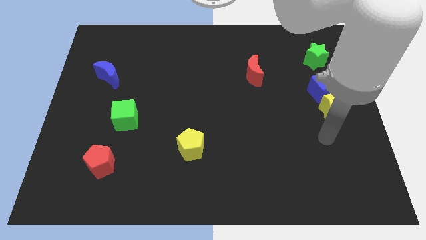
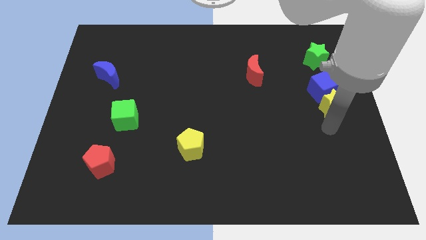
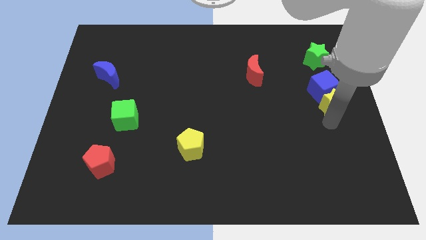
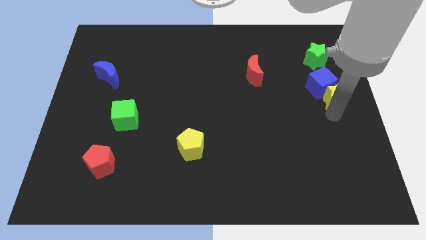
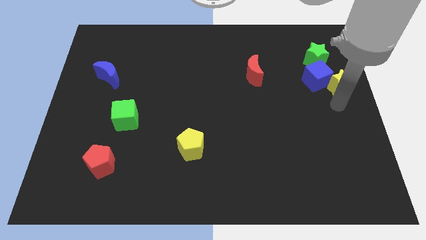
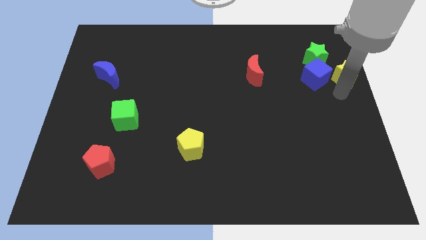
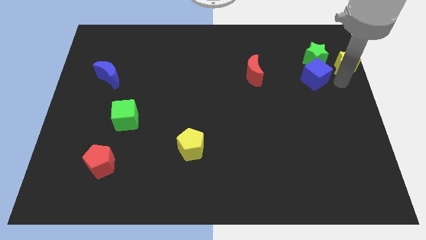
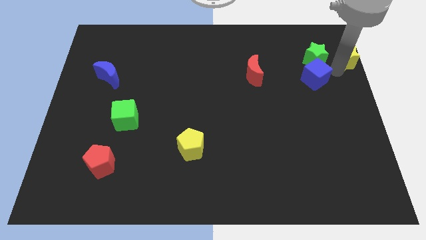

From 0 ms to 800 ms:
pull the blue cube apart from the yellow star

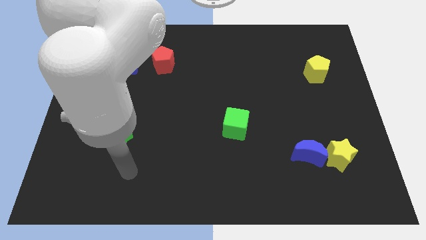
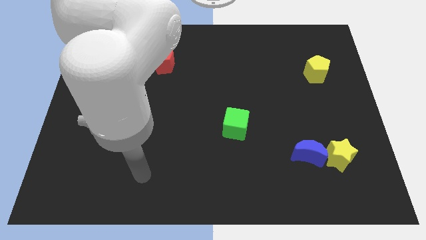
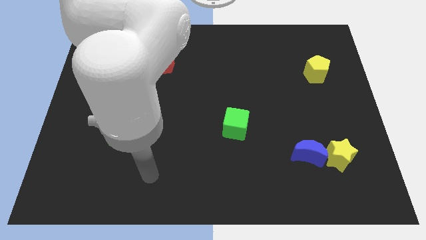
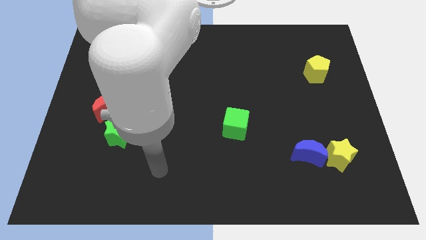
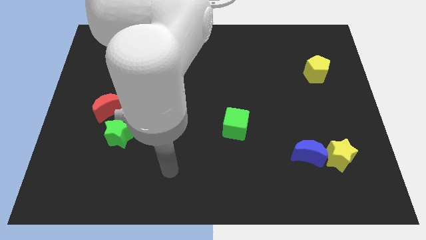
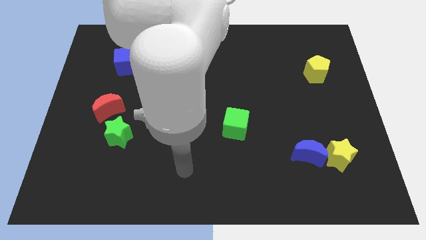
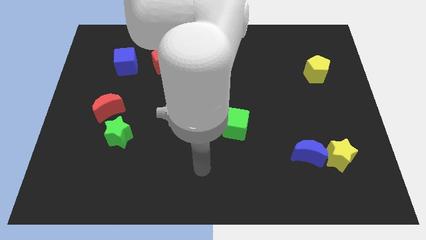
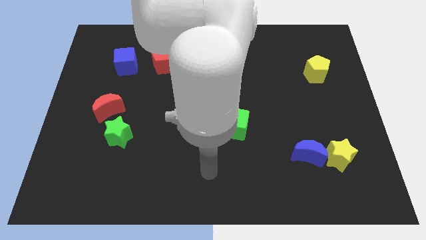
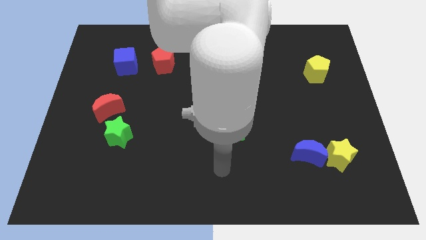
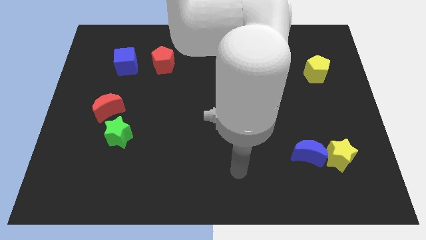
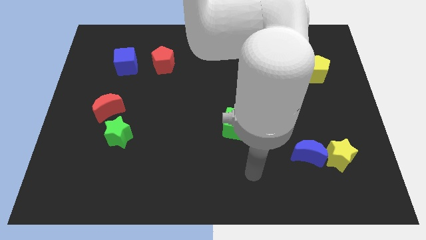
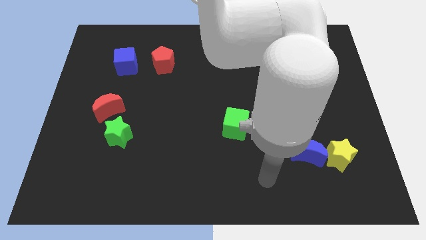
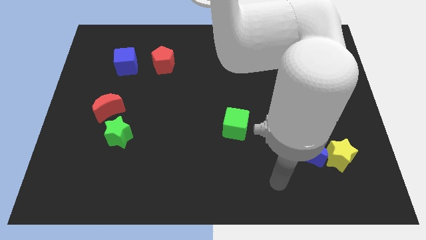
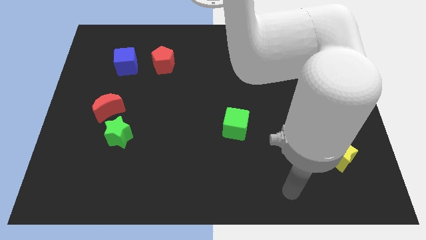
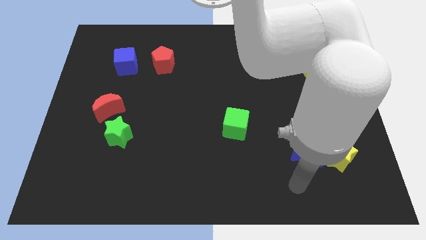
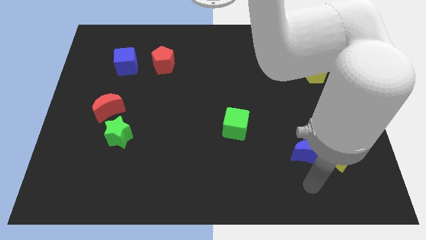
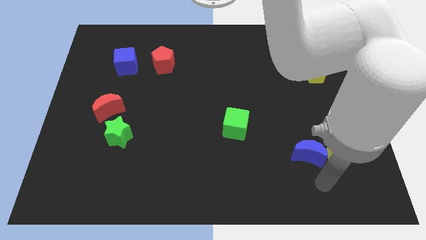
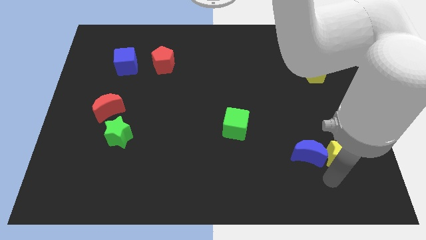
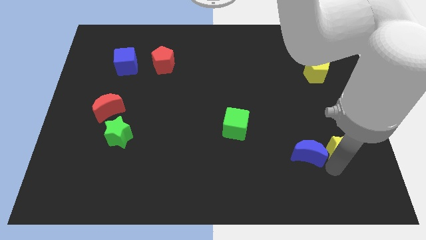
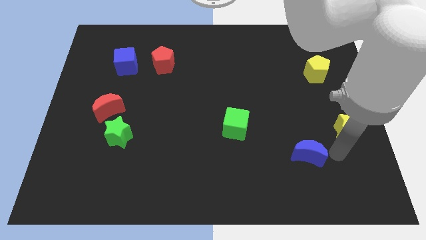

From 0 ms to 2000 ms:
pull the blue moon apart from the yellow star

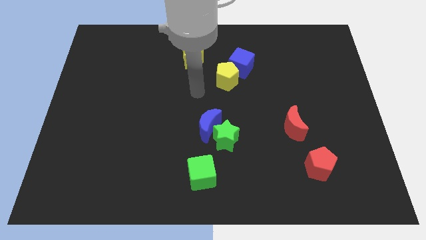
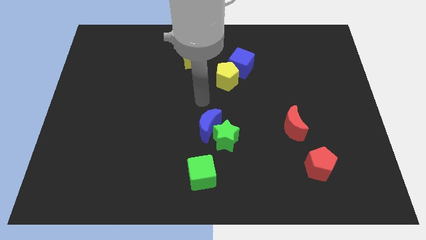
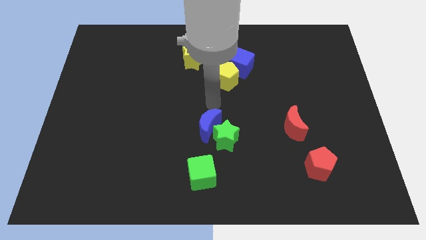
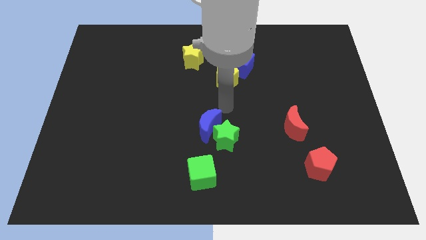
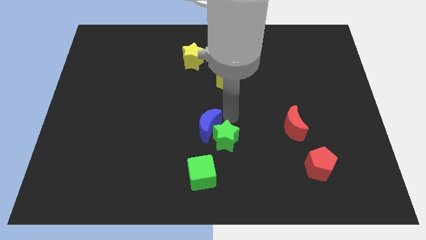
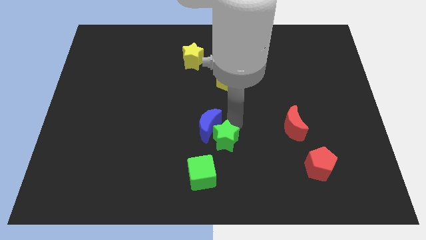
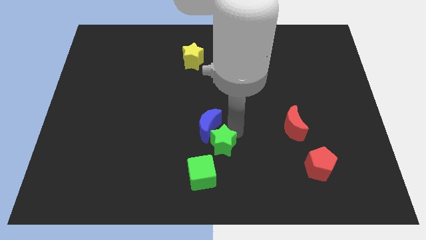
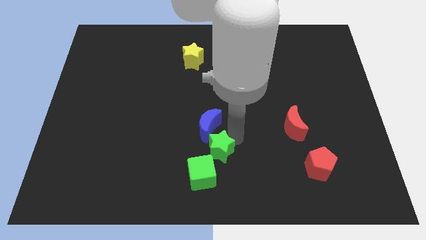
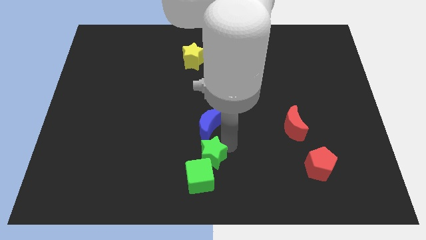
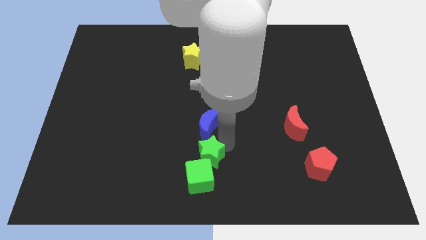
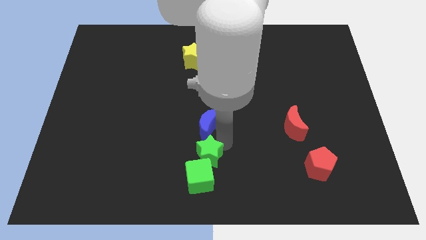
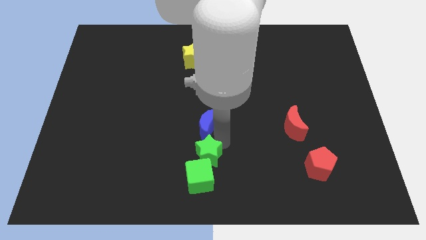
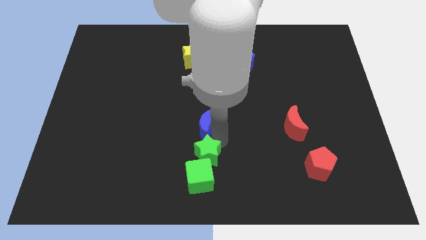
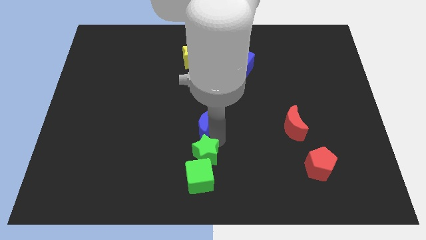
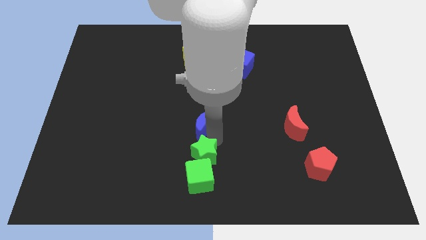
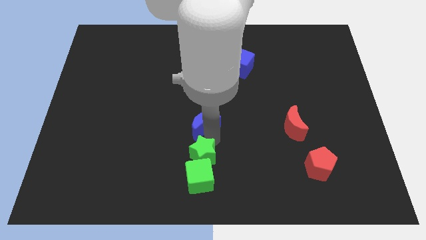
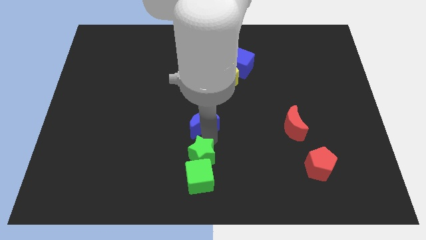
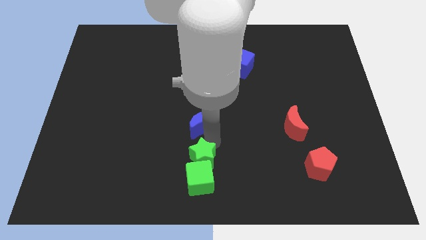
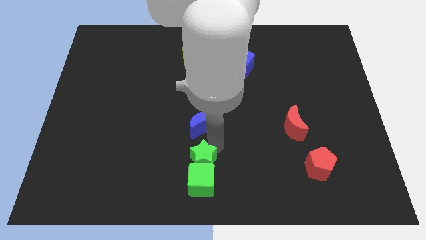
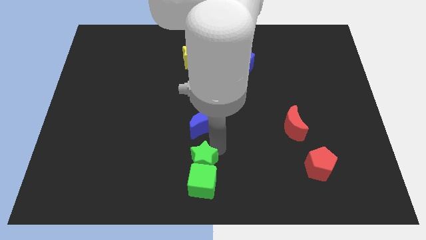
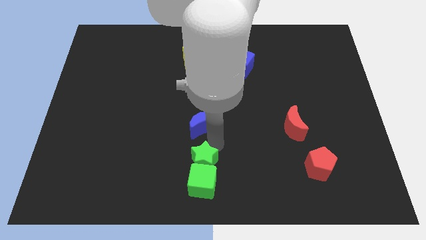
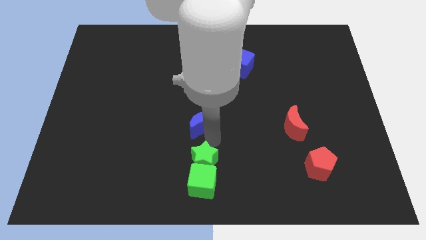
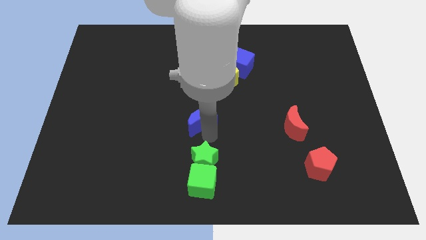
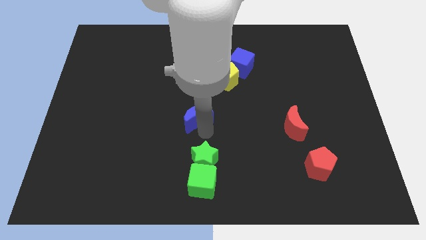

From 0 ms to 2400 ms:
separate the blue moon from the green star

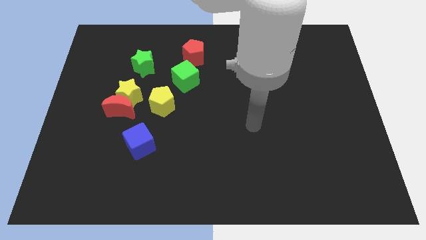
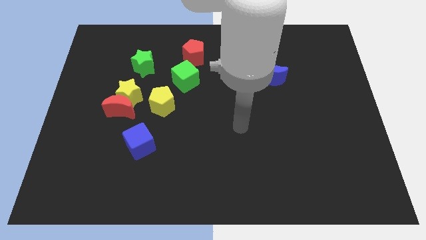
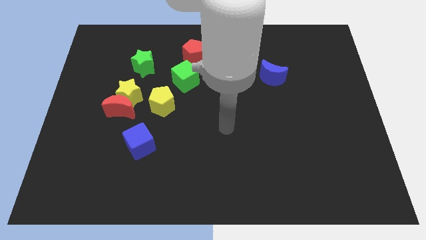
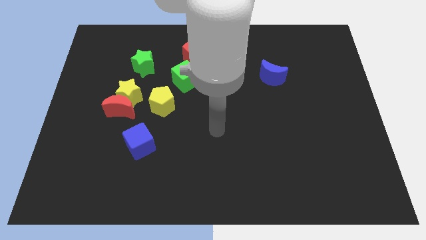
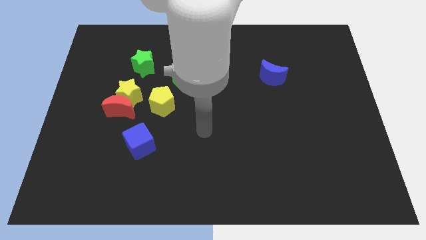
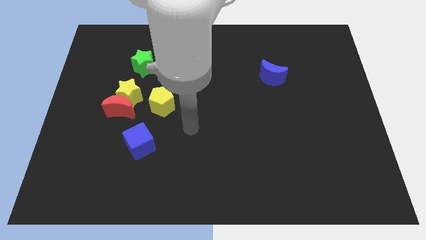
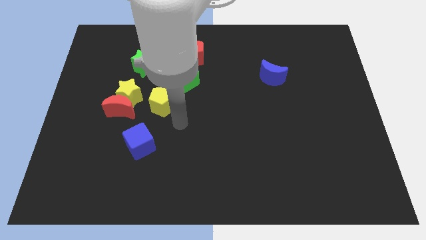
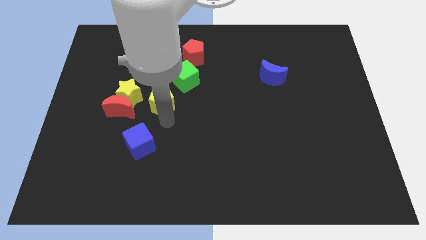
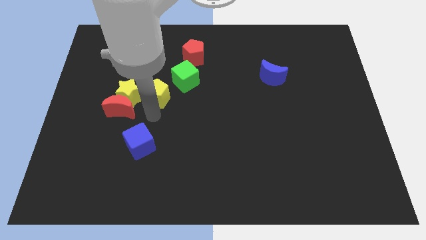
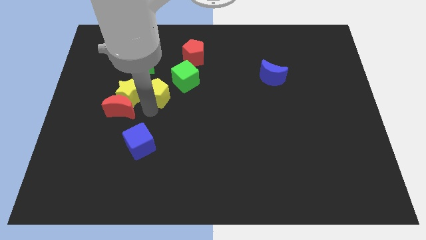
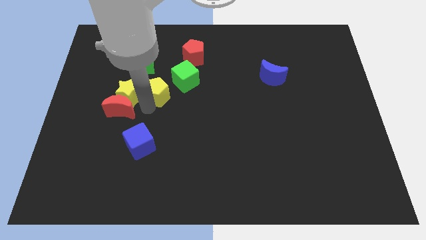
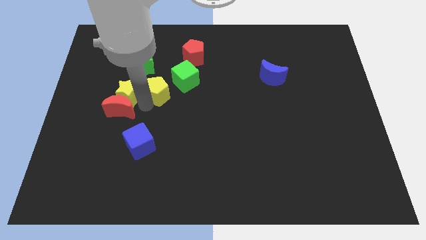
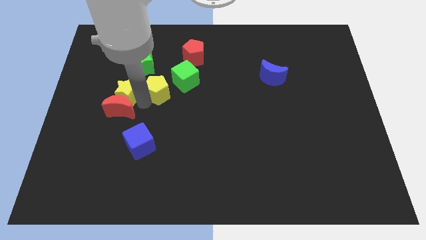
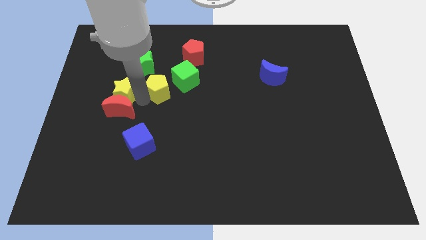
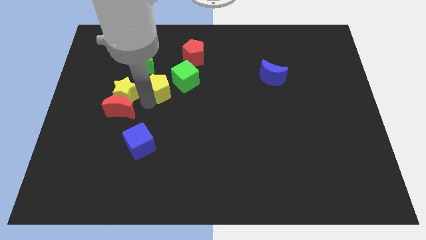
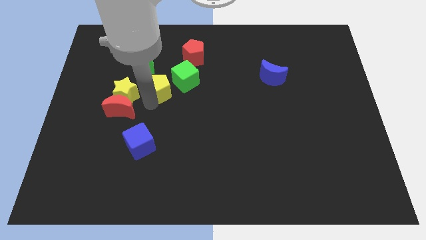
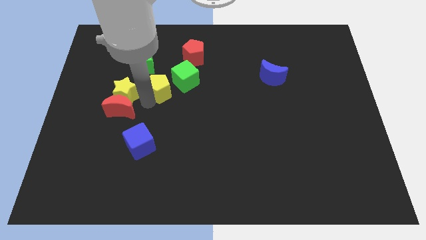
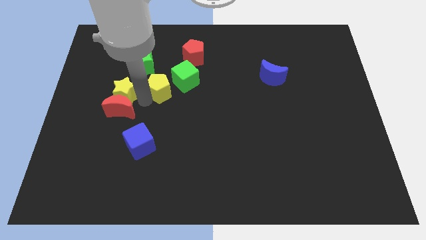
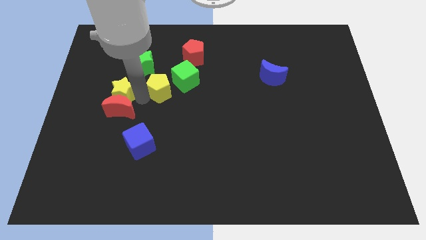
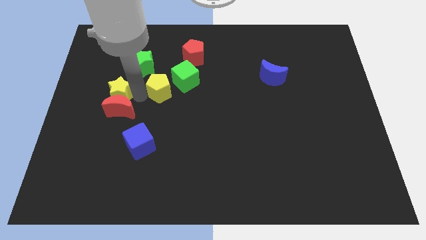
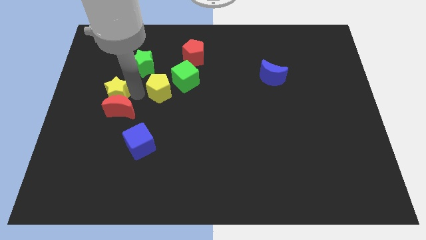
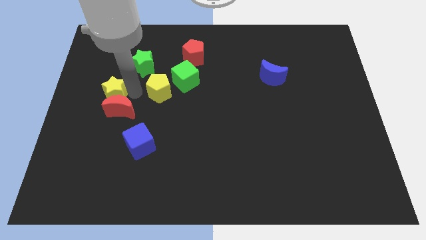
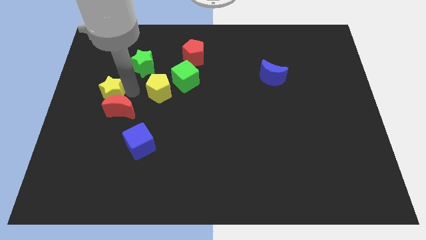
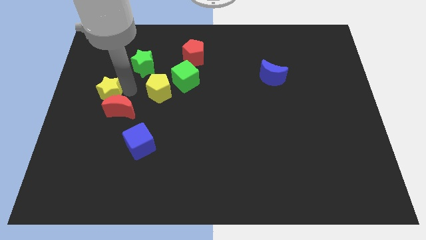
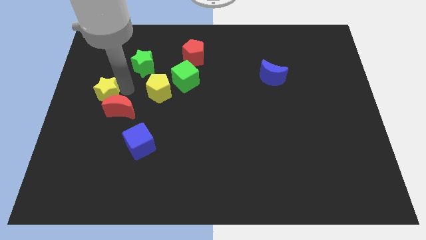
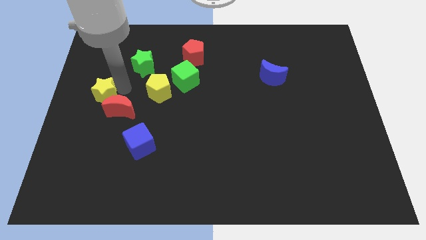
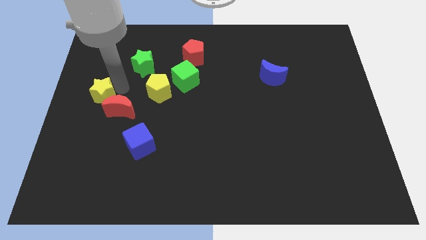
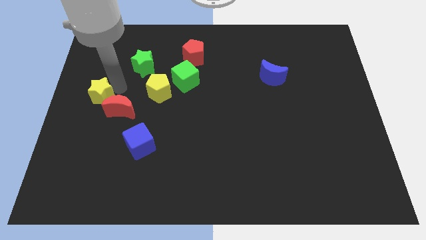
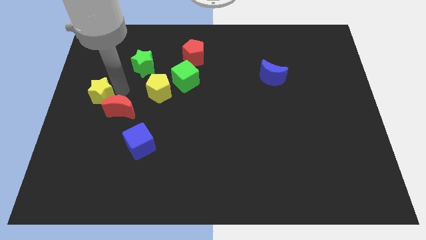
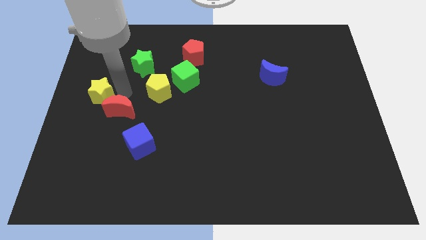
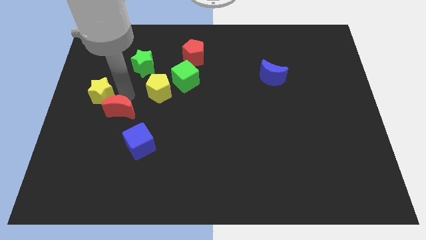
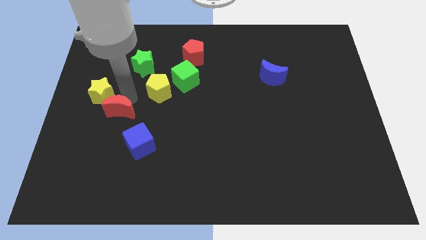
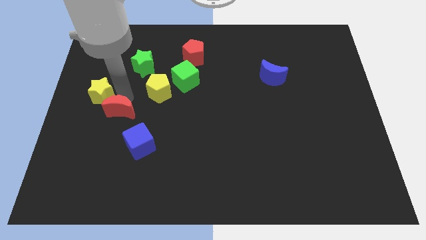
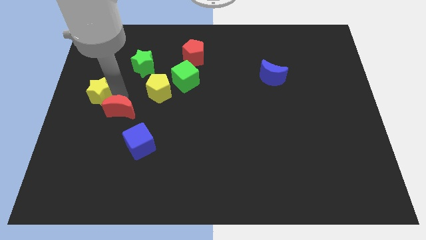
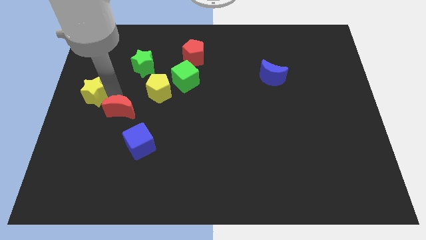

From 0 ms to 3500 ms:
separate the yellow star from the red moon and yellow pentagon

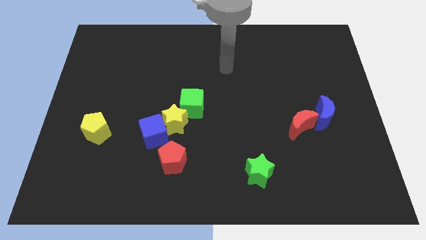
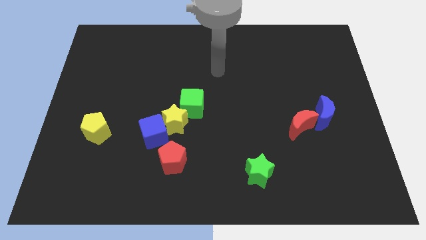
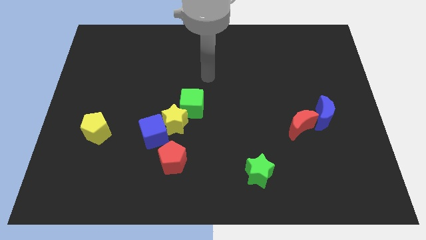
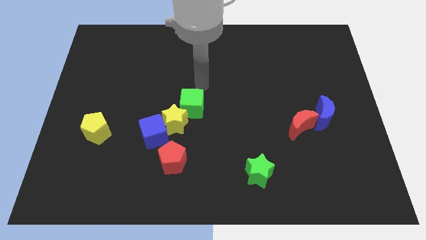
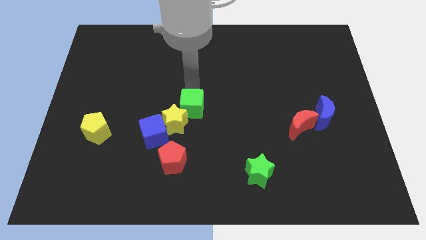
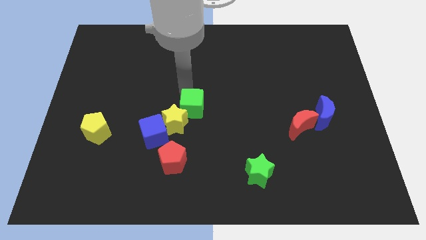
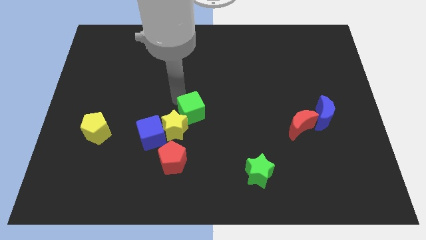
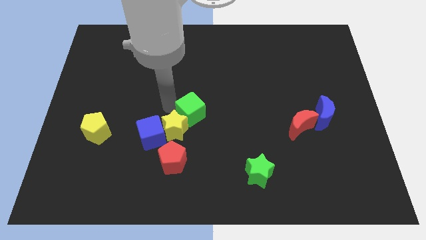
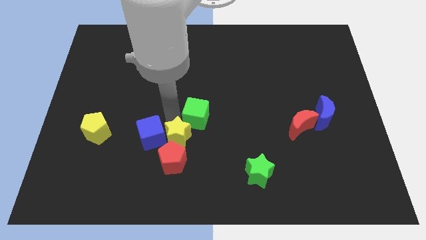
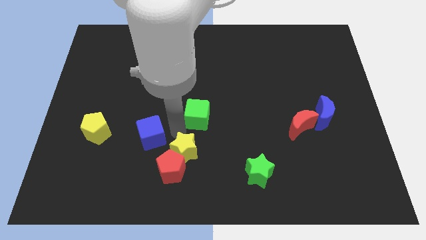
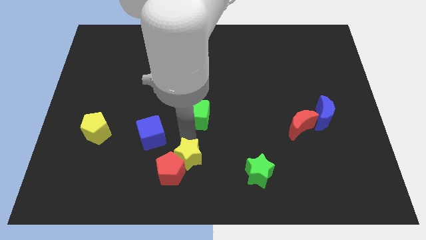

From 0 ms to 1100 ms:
move the green cube away from the yellow star
